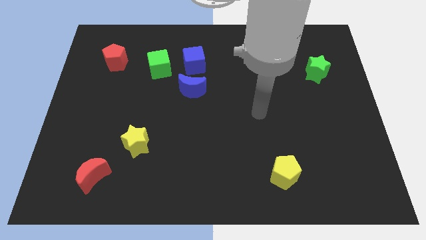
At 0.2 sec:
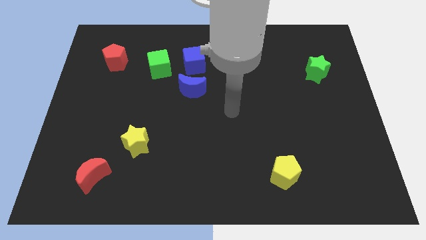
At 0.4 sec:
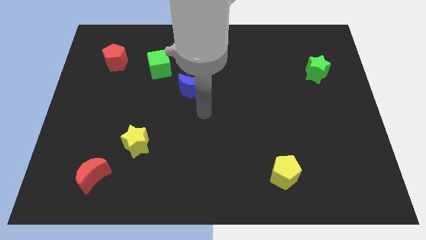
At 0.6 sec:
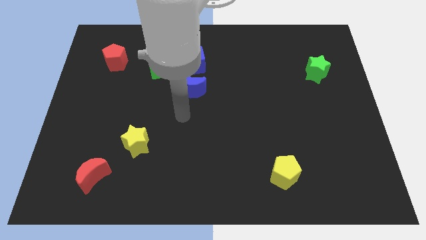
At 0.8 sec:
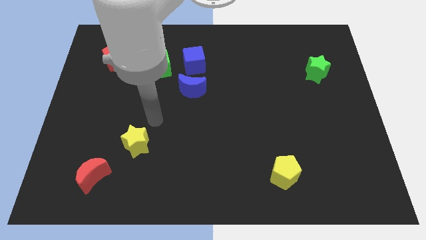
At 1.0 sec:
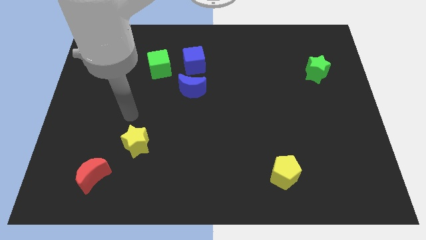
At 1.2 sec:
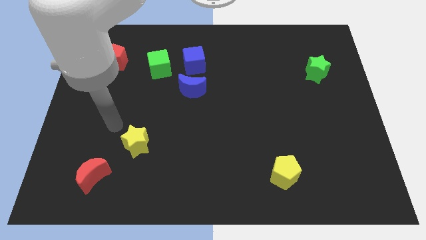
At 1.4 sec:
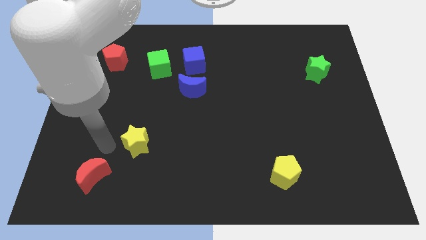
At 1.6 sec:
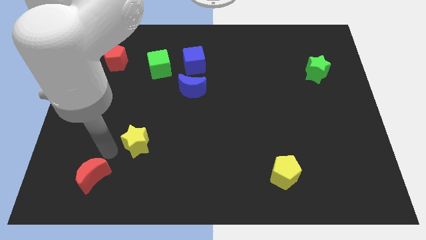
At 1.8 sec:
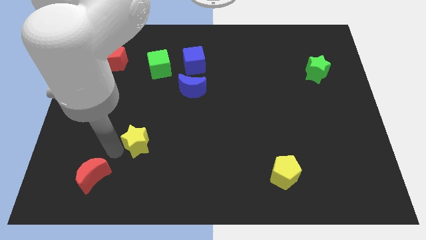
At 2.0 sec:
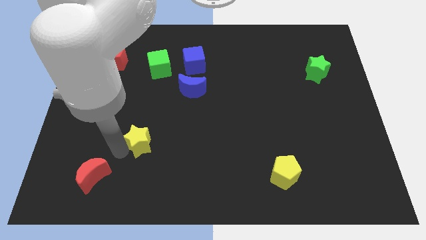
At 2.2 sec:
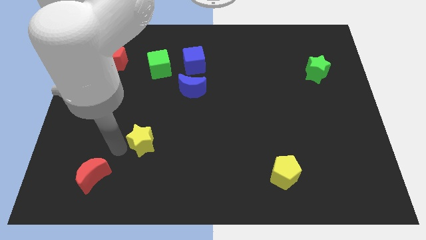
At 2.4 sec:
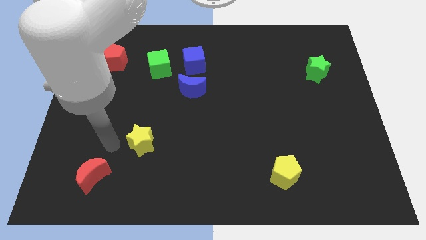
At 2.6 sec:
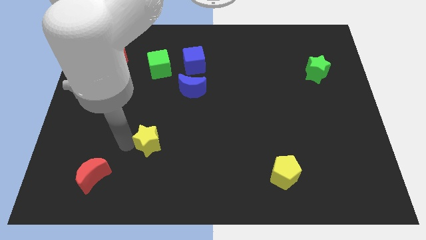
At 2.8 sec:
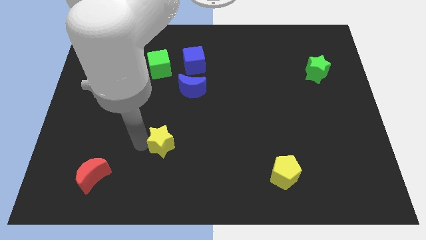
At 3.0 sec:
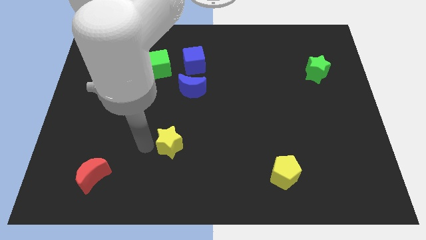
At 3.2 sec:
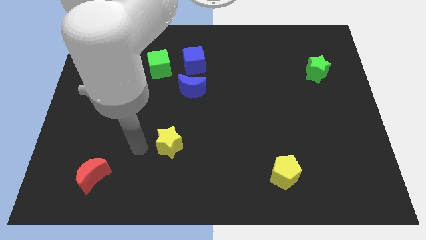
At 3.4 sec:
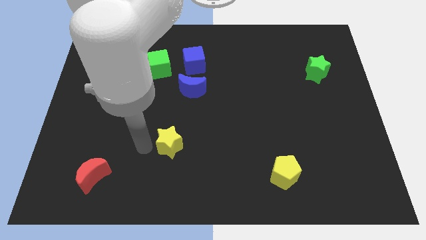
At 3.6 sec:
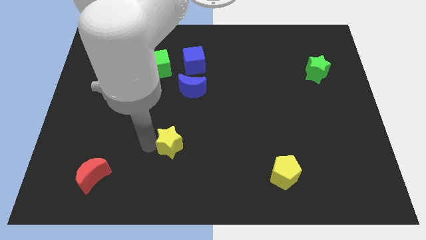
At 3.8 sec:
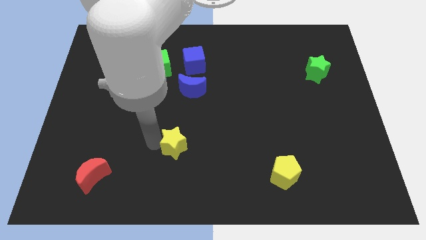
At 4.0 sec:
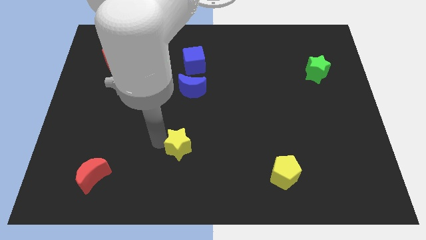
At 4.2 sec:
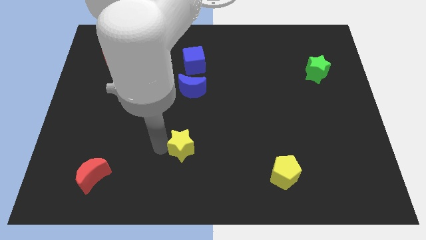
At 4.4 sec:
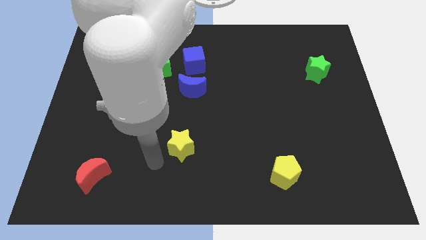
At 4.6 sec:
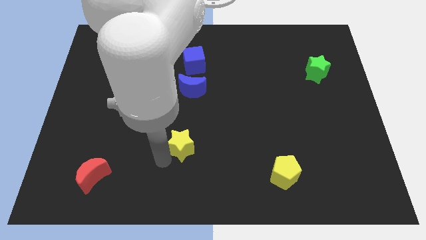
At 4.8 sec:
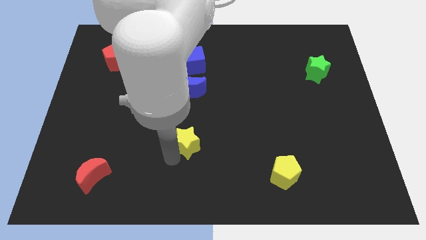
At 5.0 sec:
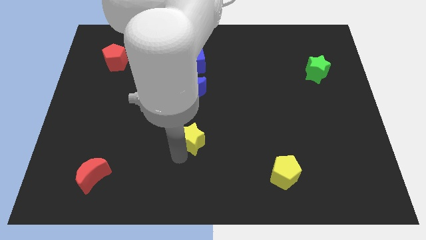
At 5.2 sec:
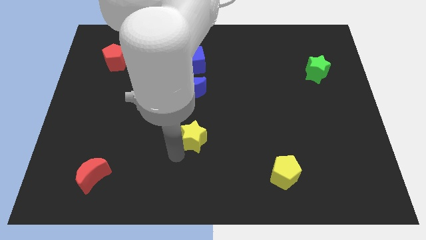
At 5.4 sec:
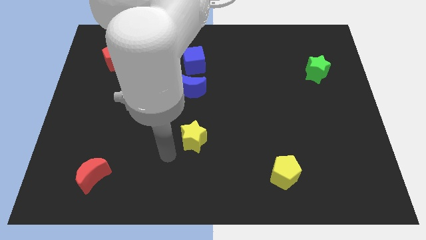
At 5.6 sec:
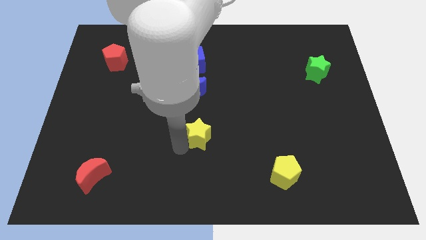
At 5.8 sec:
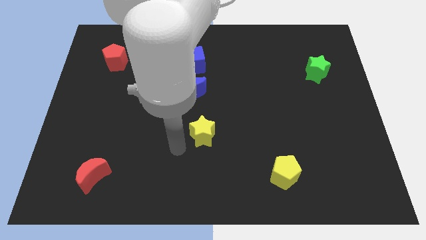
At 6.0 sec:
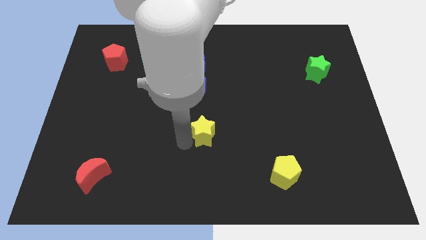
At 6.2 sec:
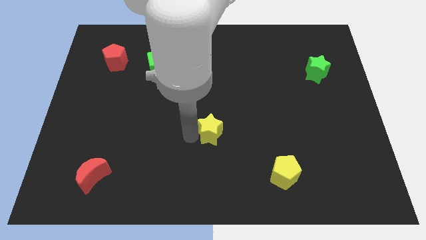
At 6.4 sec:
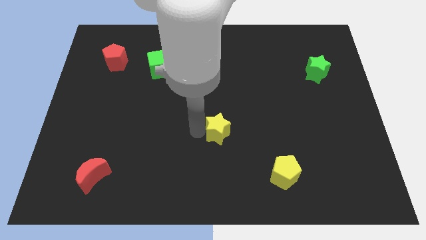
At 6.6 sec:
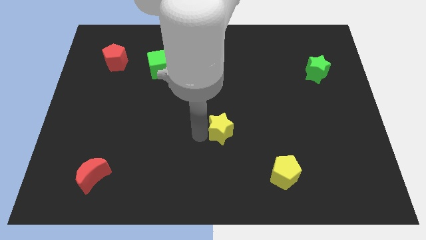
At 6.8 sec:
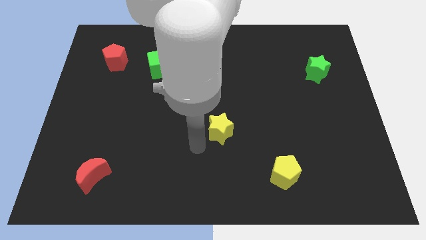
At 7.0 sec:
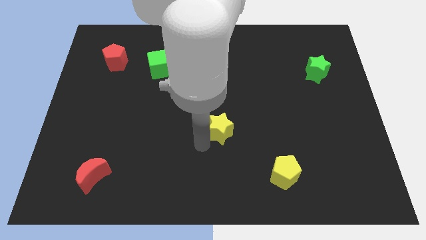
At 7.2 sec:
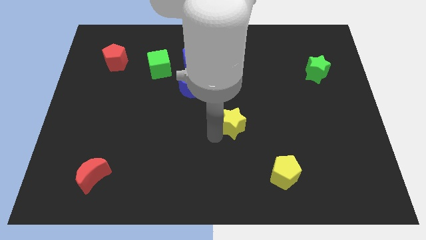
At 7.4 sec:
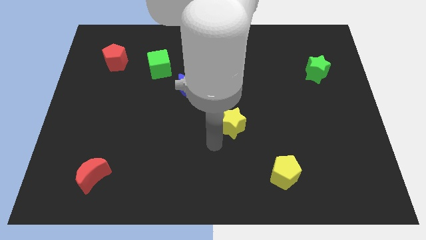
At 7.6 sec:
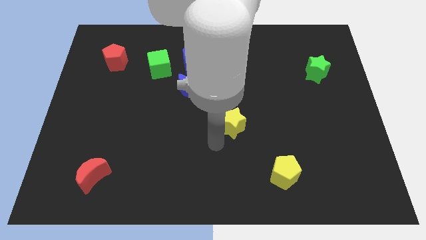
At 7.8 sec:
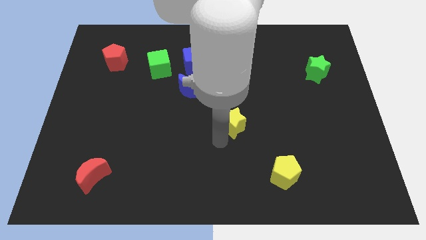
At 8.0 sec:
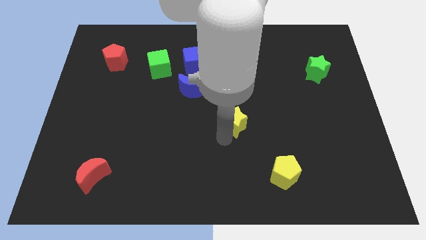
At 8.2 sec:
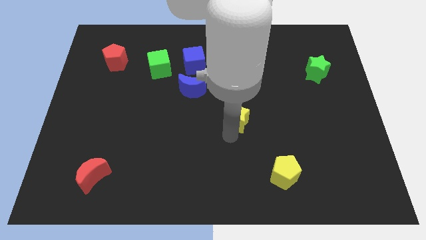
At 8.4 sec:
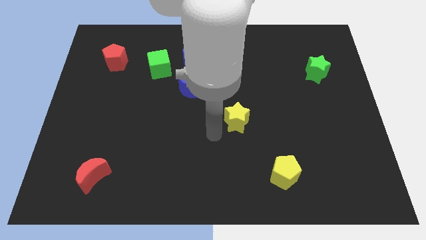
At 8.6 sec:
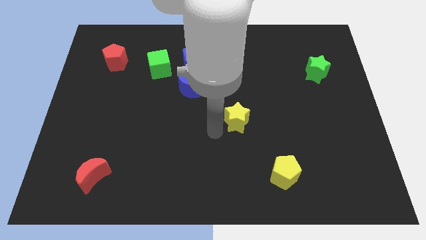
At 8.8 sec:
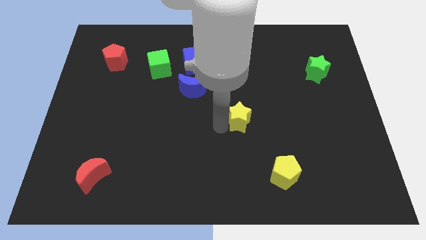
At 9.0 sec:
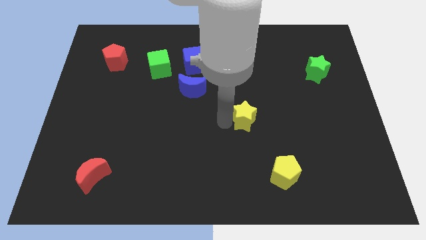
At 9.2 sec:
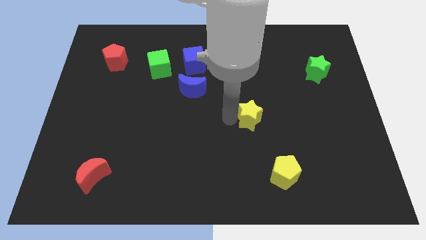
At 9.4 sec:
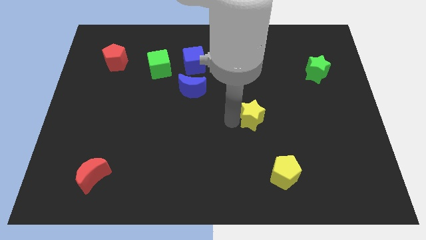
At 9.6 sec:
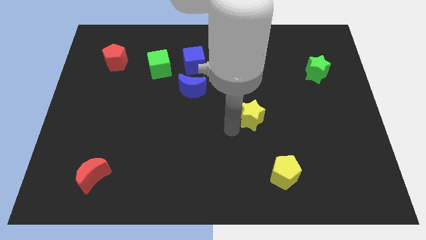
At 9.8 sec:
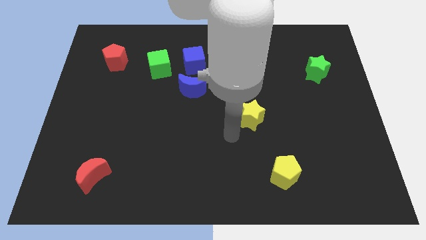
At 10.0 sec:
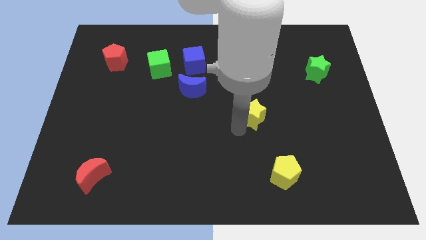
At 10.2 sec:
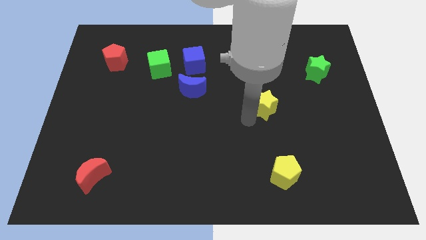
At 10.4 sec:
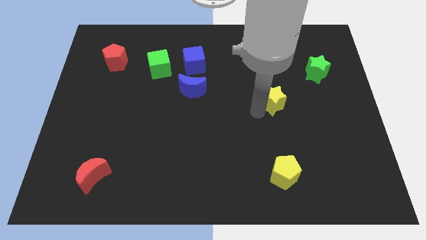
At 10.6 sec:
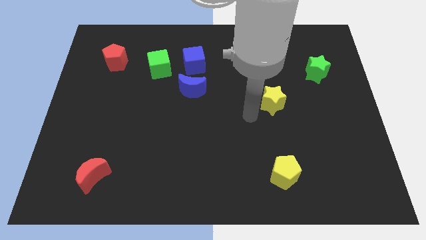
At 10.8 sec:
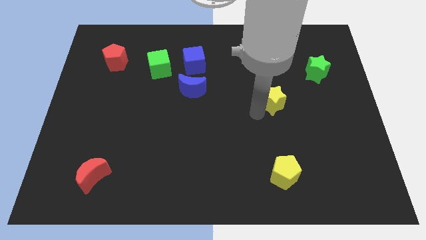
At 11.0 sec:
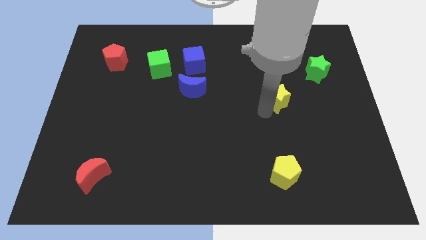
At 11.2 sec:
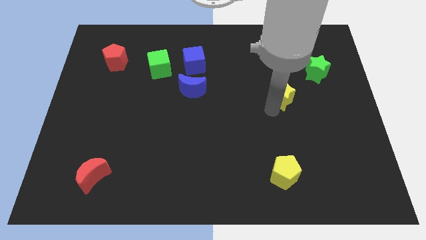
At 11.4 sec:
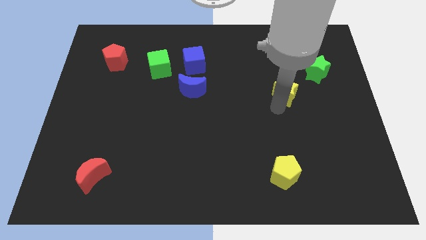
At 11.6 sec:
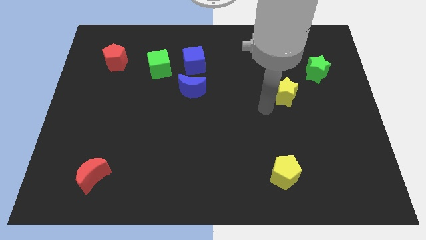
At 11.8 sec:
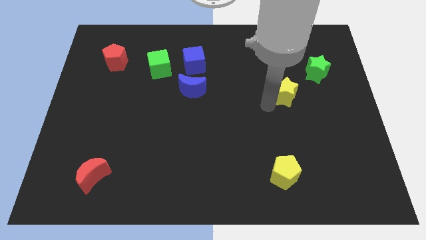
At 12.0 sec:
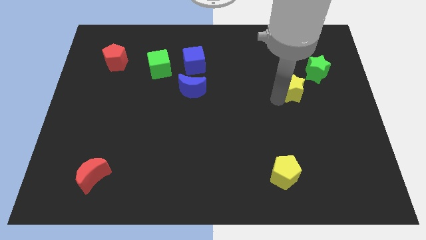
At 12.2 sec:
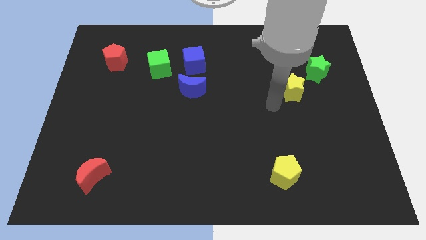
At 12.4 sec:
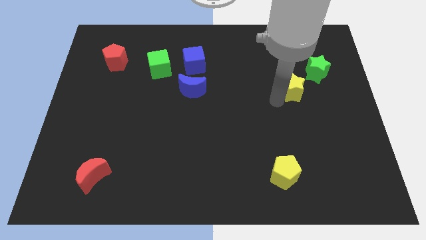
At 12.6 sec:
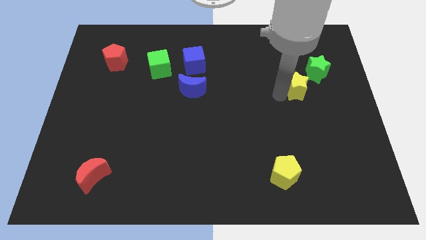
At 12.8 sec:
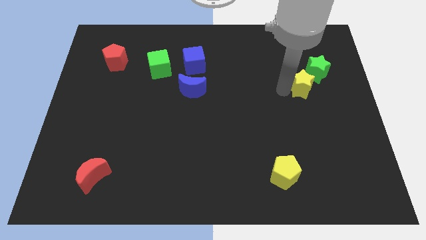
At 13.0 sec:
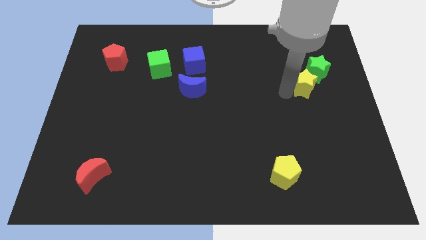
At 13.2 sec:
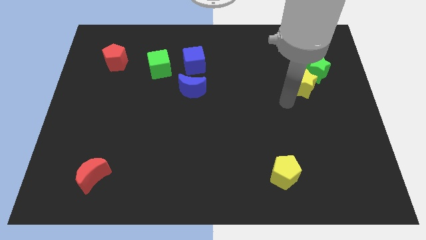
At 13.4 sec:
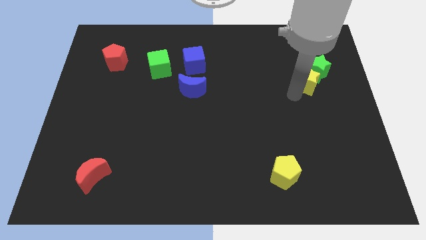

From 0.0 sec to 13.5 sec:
move the yellow star close to the green star
